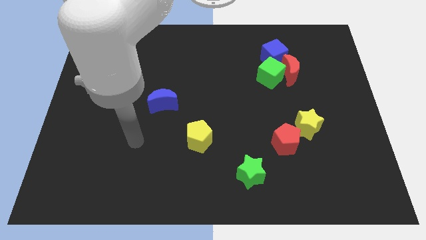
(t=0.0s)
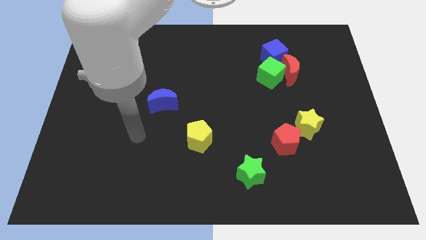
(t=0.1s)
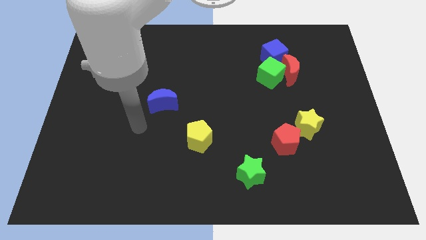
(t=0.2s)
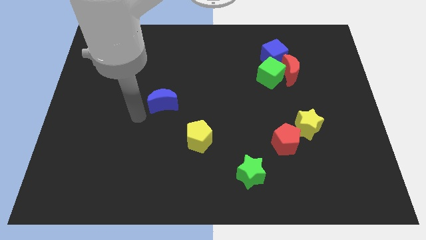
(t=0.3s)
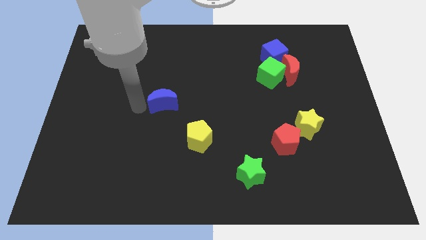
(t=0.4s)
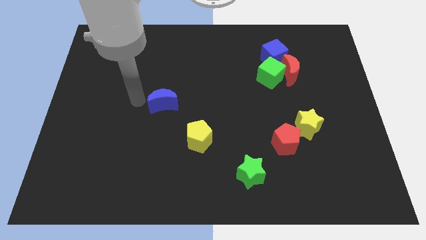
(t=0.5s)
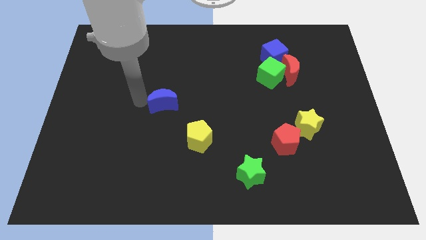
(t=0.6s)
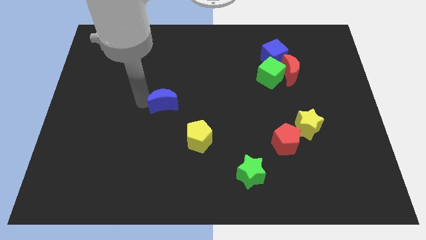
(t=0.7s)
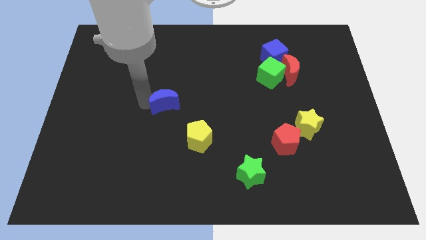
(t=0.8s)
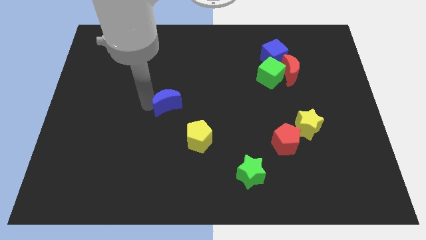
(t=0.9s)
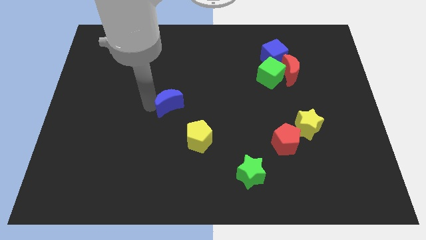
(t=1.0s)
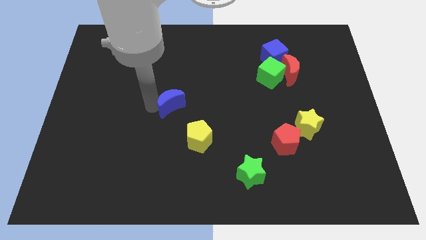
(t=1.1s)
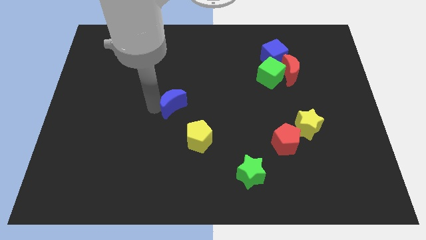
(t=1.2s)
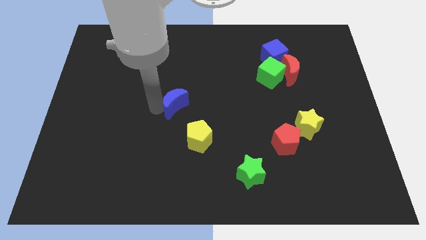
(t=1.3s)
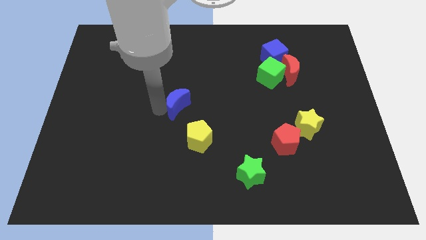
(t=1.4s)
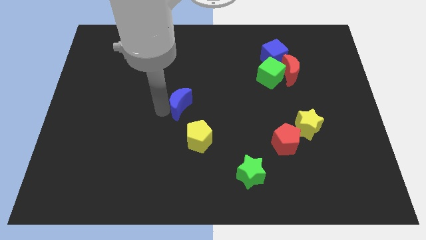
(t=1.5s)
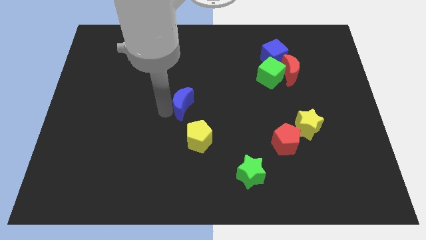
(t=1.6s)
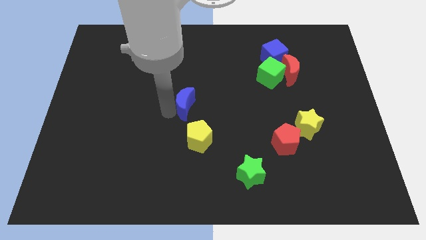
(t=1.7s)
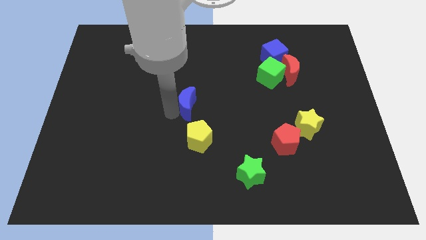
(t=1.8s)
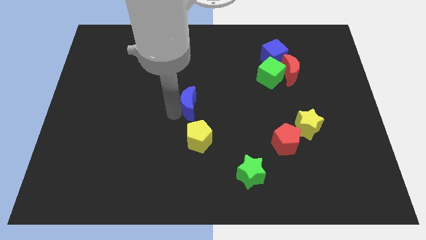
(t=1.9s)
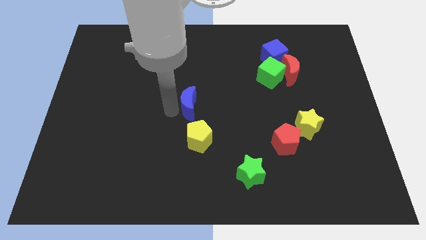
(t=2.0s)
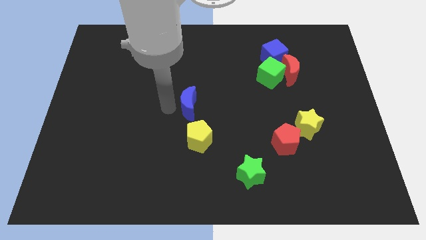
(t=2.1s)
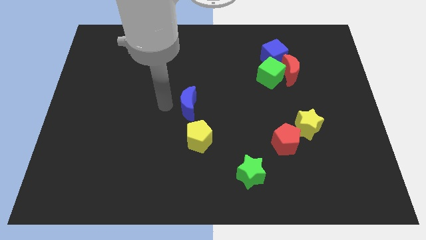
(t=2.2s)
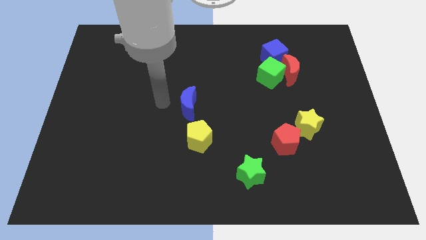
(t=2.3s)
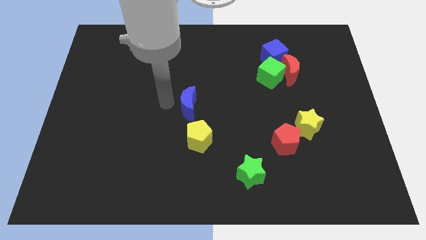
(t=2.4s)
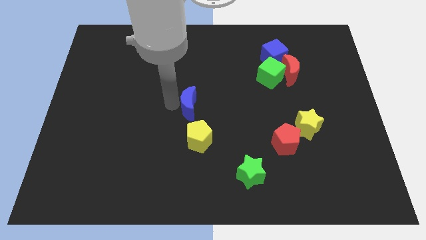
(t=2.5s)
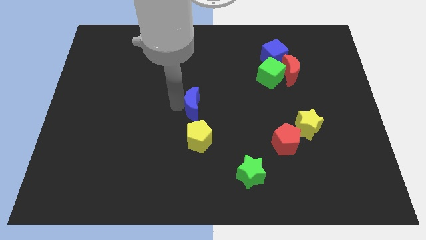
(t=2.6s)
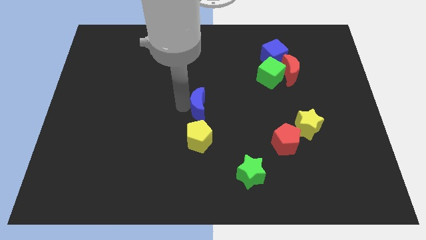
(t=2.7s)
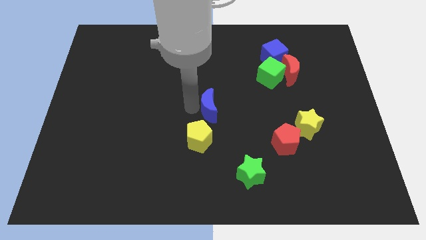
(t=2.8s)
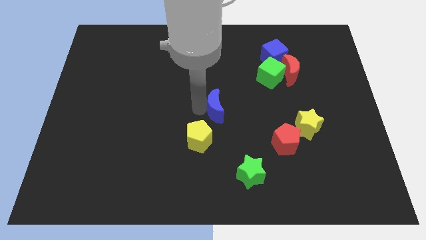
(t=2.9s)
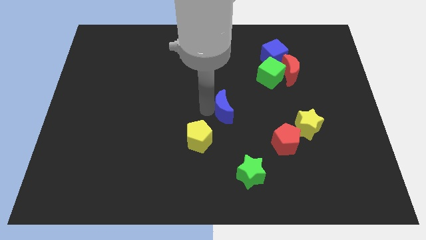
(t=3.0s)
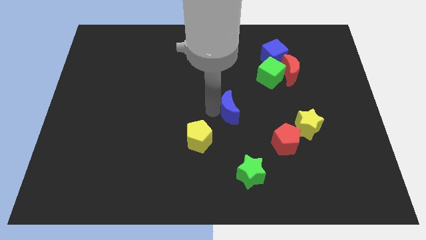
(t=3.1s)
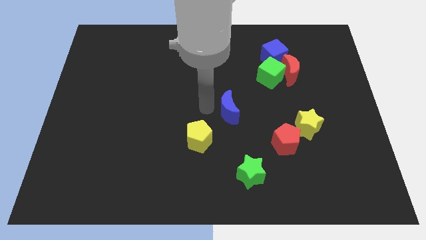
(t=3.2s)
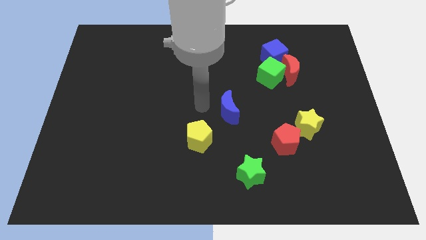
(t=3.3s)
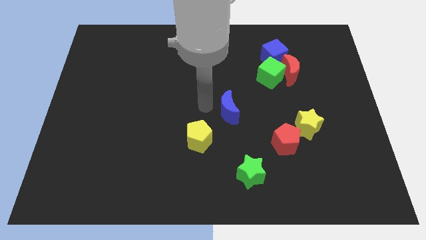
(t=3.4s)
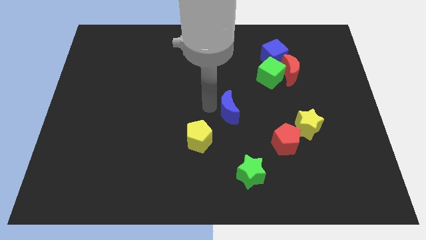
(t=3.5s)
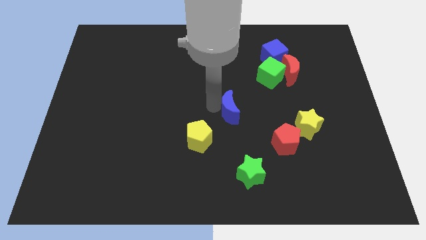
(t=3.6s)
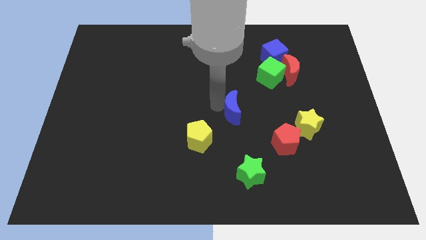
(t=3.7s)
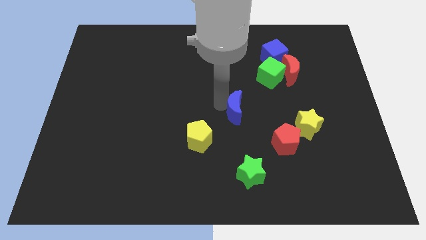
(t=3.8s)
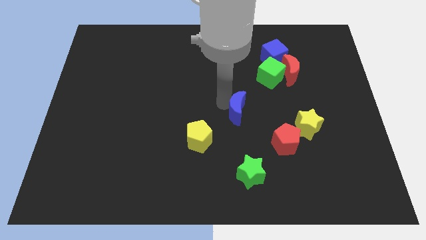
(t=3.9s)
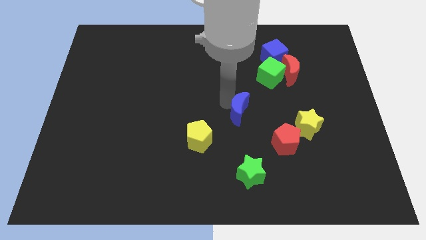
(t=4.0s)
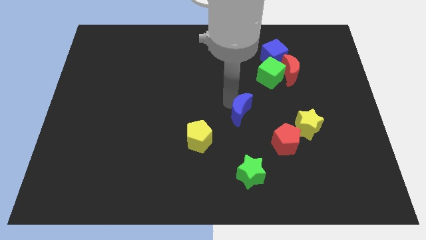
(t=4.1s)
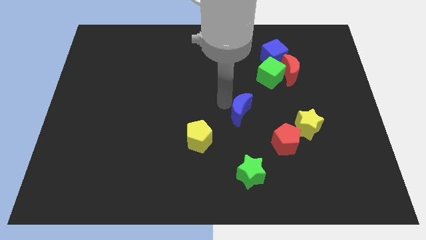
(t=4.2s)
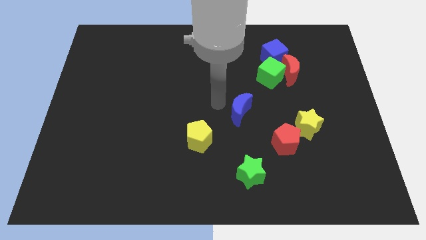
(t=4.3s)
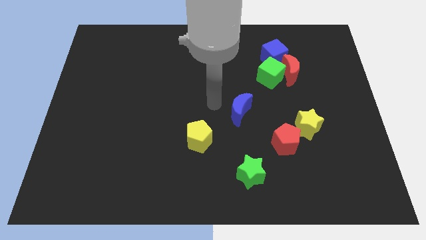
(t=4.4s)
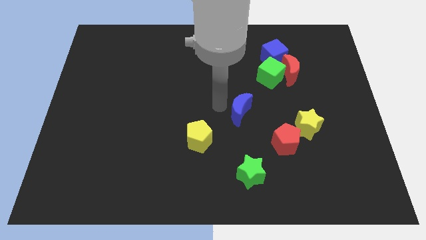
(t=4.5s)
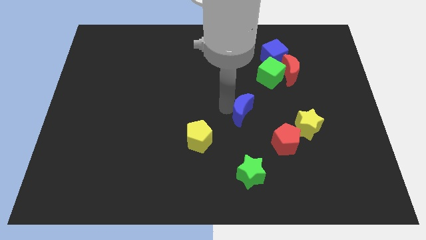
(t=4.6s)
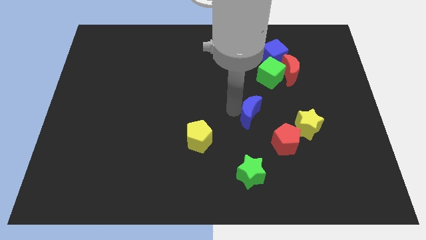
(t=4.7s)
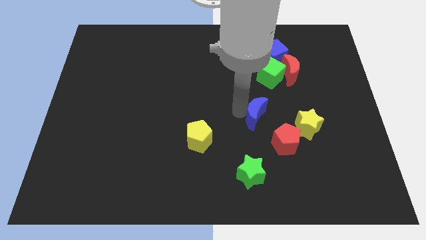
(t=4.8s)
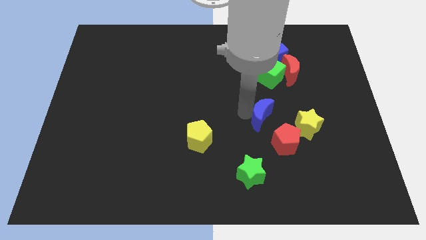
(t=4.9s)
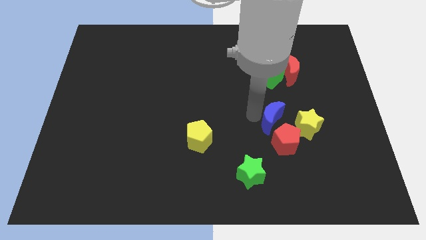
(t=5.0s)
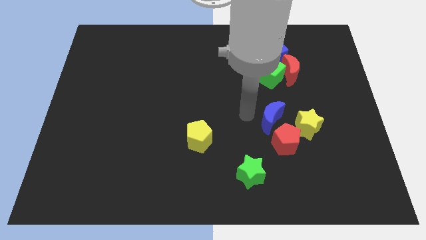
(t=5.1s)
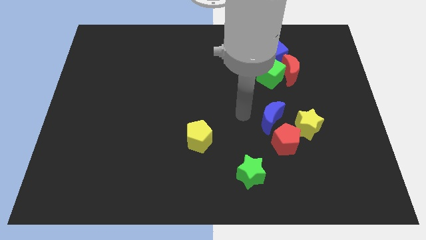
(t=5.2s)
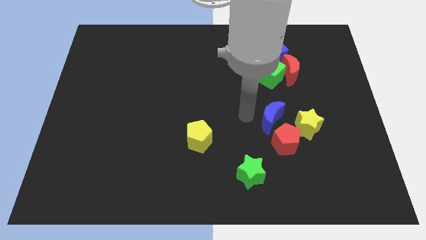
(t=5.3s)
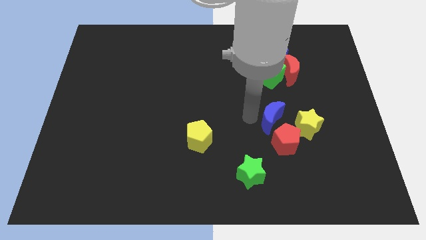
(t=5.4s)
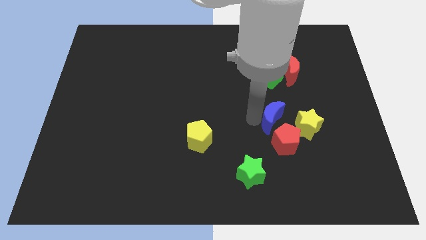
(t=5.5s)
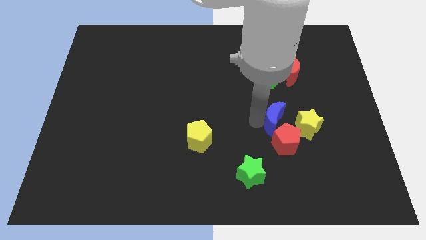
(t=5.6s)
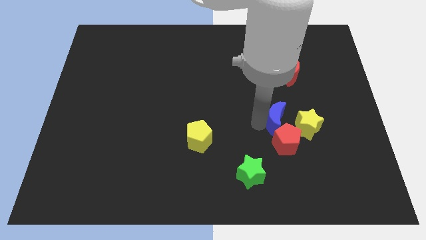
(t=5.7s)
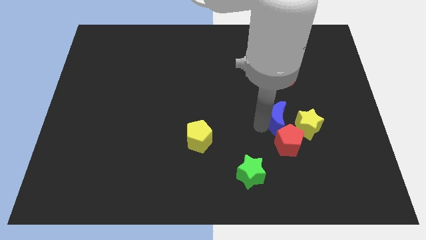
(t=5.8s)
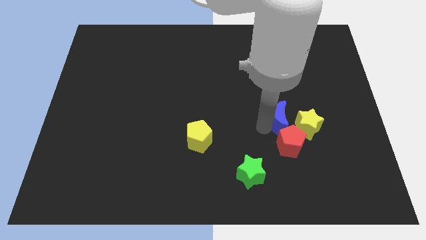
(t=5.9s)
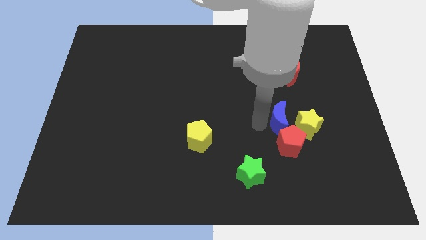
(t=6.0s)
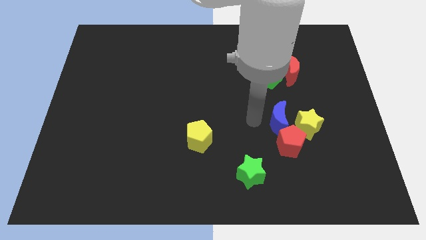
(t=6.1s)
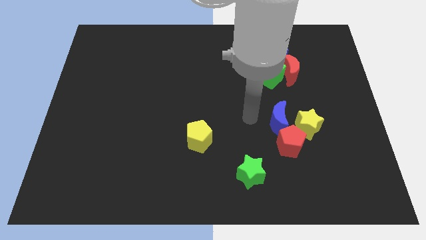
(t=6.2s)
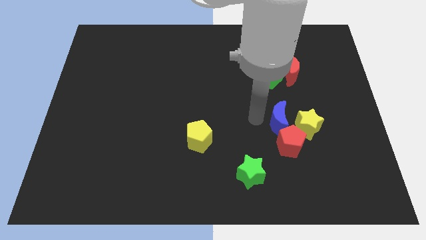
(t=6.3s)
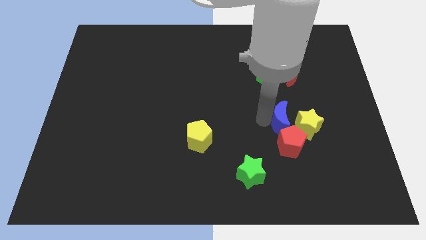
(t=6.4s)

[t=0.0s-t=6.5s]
slide the blue moon next to the yellow star
